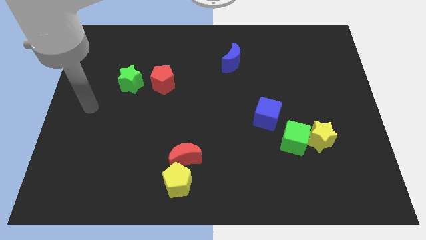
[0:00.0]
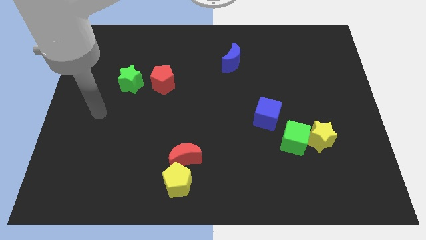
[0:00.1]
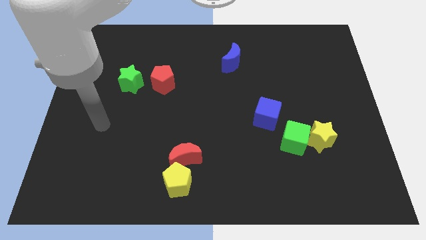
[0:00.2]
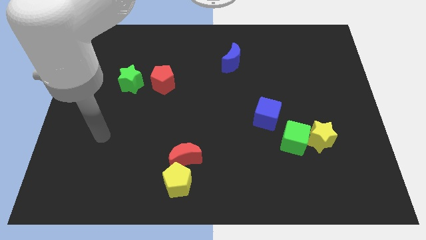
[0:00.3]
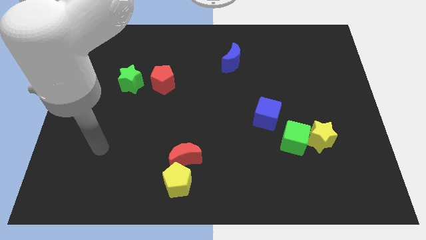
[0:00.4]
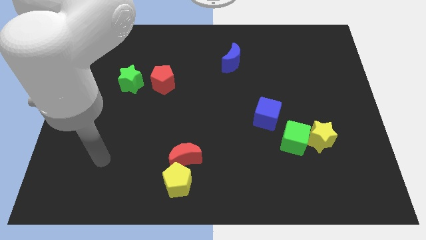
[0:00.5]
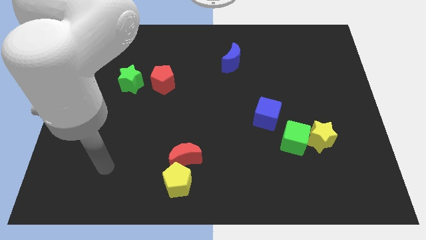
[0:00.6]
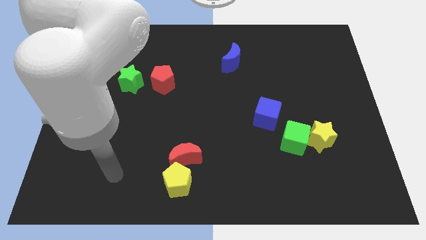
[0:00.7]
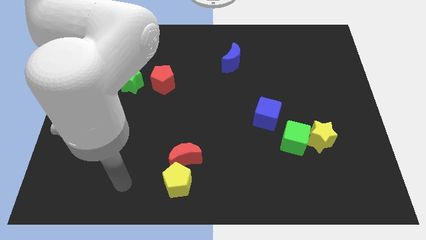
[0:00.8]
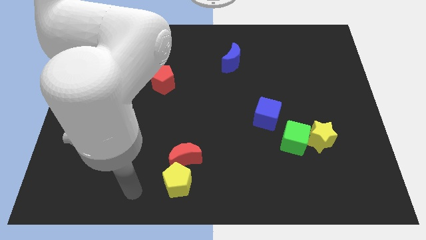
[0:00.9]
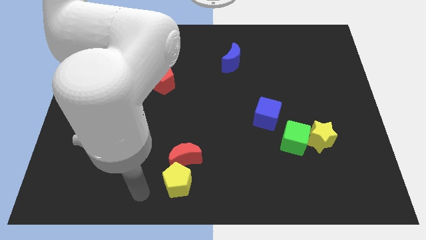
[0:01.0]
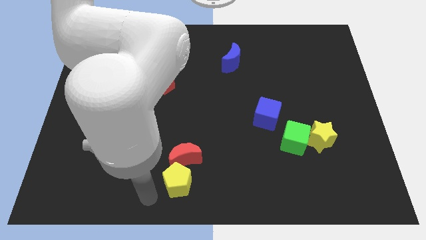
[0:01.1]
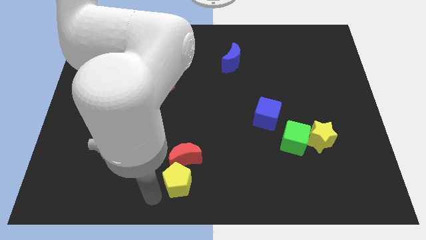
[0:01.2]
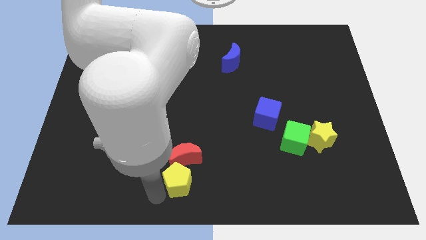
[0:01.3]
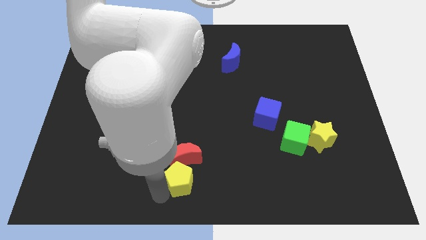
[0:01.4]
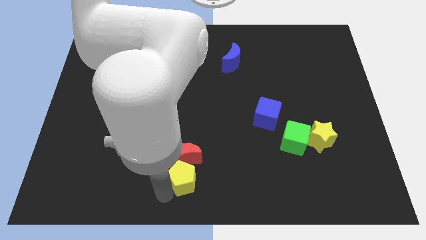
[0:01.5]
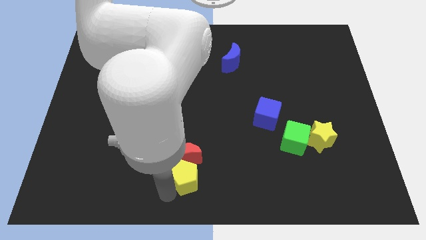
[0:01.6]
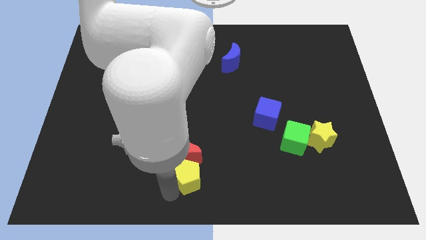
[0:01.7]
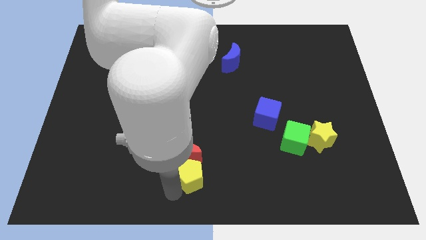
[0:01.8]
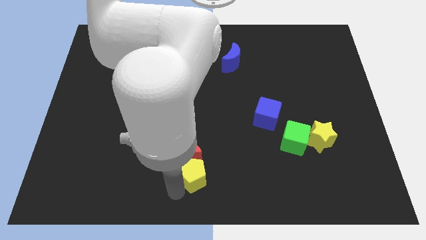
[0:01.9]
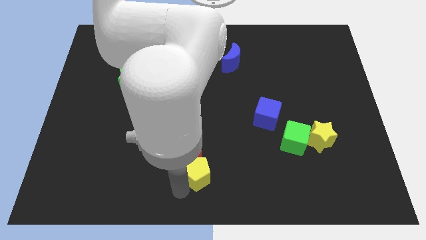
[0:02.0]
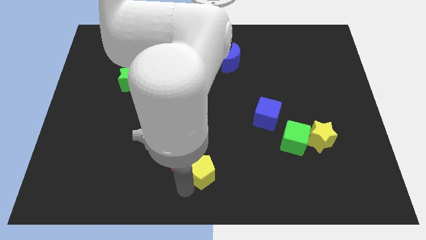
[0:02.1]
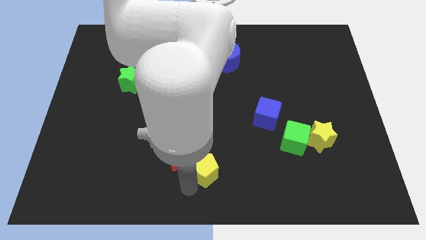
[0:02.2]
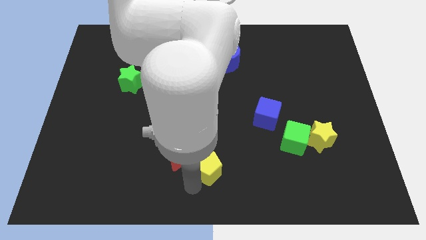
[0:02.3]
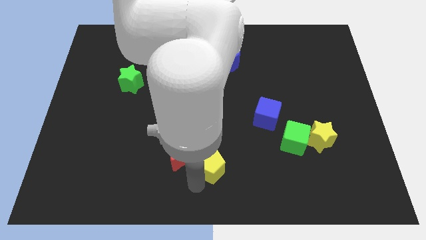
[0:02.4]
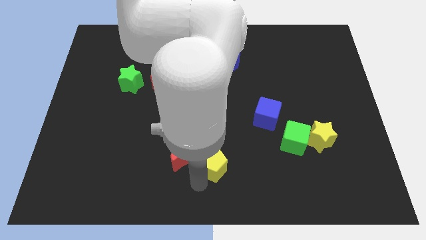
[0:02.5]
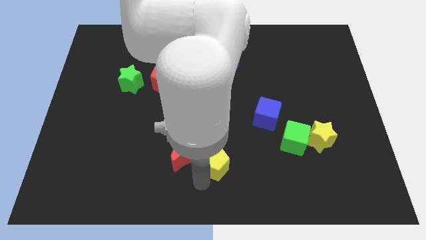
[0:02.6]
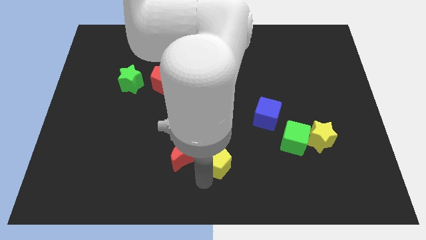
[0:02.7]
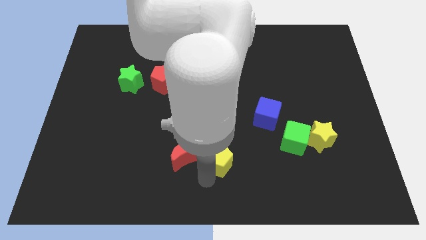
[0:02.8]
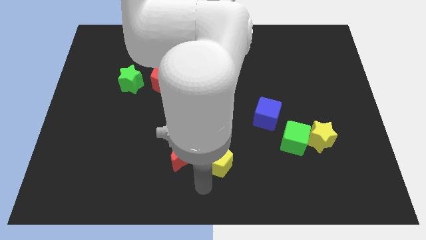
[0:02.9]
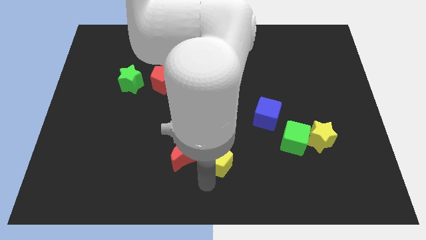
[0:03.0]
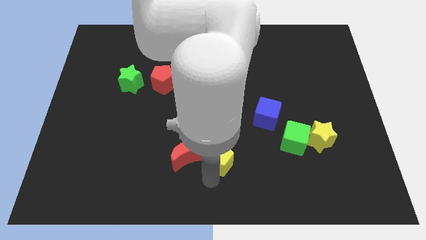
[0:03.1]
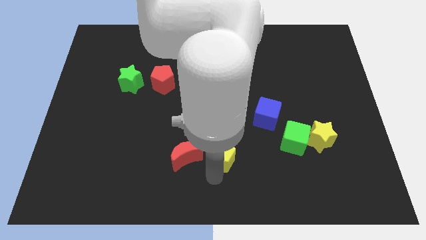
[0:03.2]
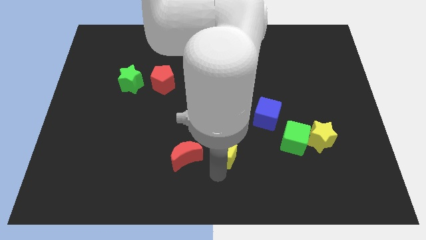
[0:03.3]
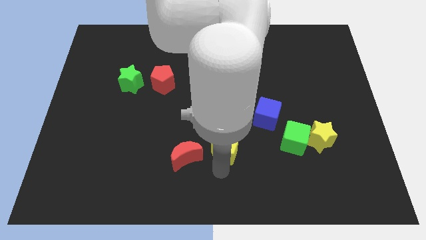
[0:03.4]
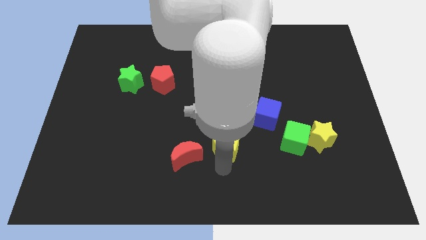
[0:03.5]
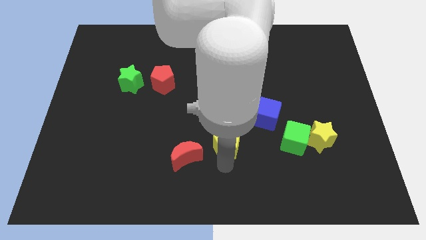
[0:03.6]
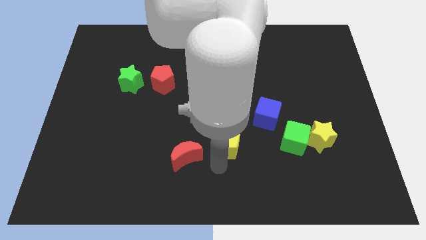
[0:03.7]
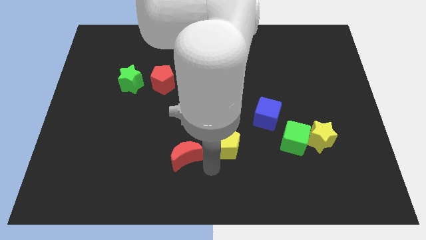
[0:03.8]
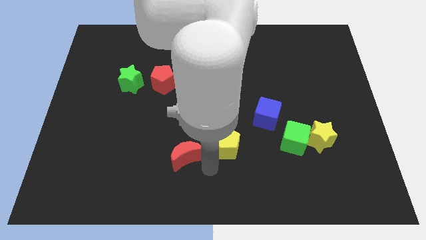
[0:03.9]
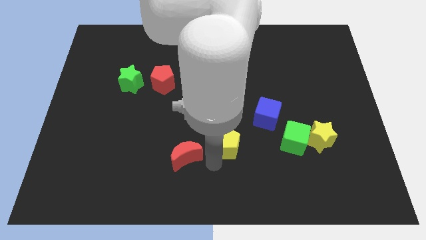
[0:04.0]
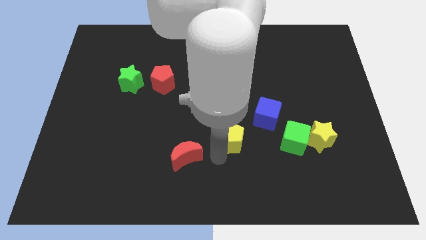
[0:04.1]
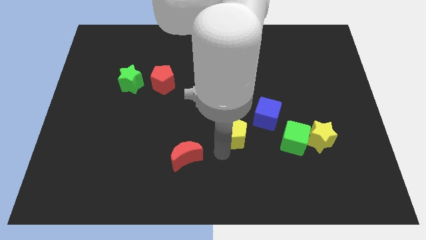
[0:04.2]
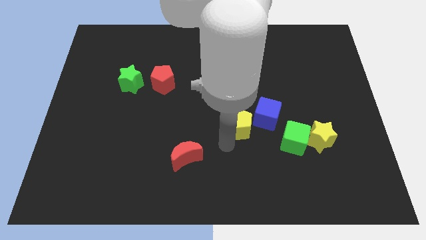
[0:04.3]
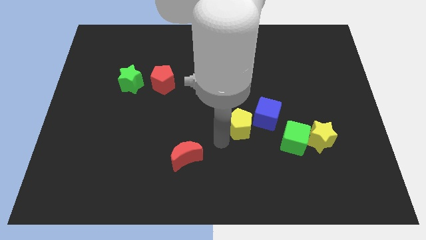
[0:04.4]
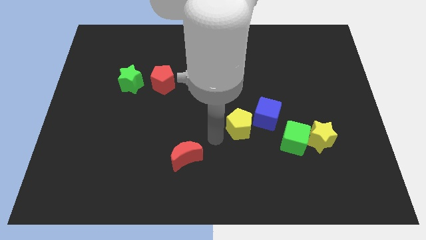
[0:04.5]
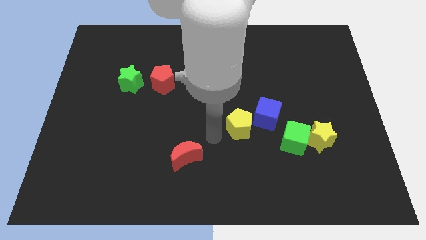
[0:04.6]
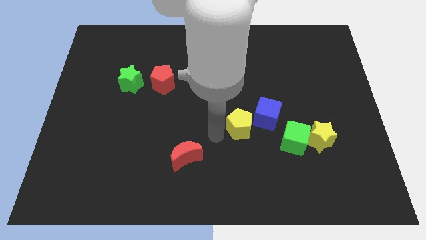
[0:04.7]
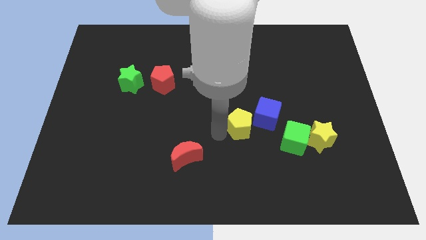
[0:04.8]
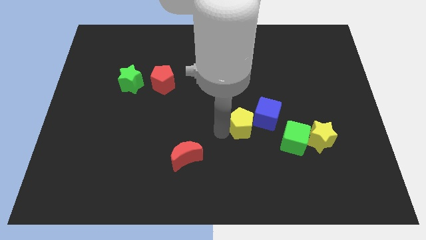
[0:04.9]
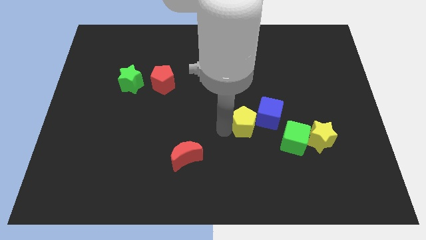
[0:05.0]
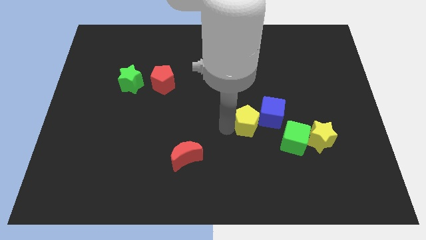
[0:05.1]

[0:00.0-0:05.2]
put the yellow pentagon towards the blue cube

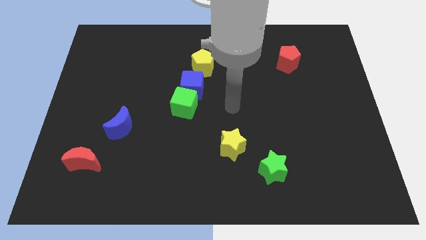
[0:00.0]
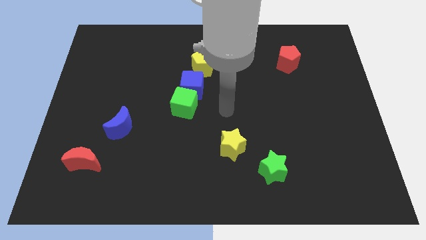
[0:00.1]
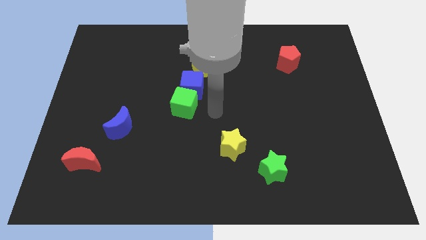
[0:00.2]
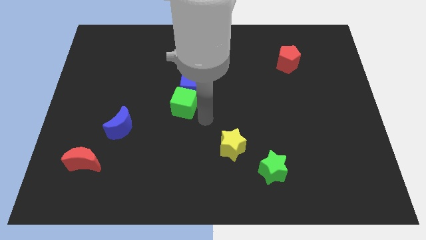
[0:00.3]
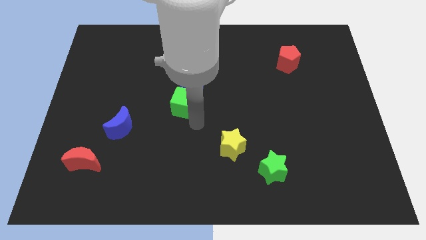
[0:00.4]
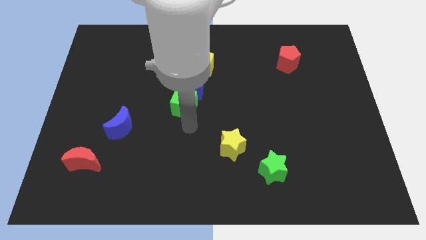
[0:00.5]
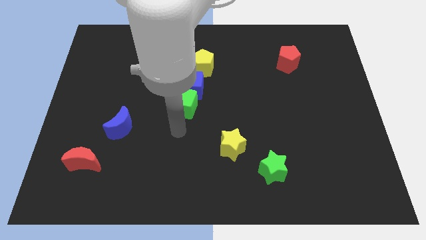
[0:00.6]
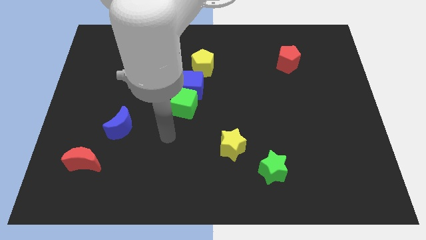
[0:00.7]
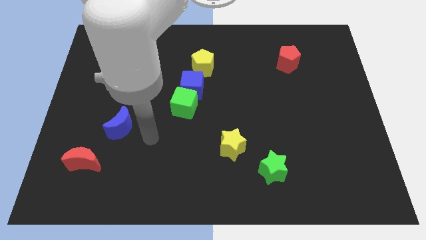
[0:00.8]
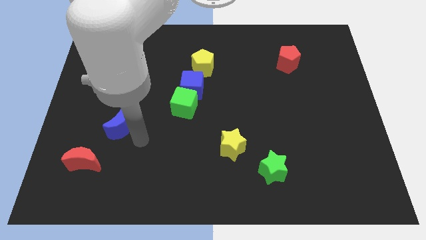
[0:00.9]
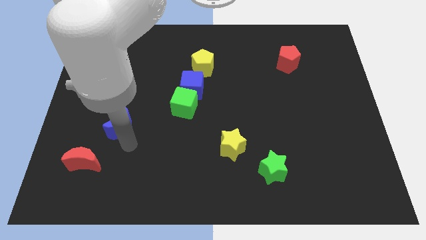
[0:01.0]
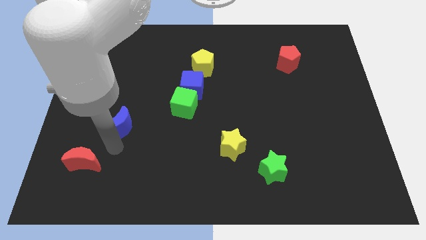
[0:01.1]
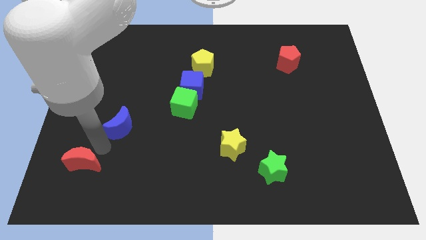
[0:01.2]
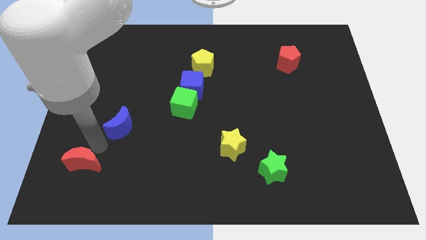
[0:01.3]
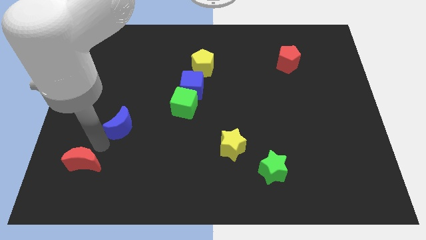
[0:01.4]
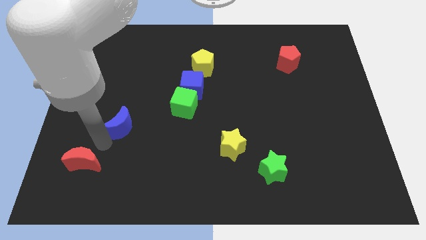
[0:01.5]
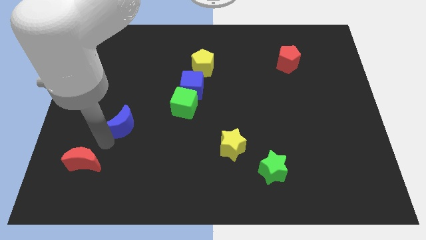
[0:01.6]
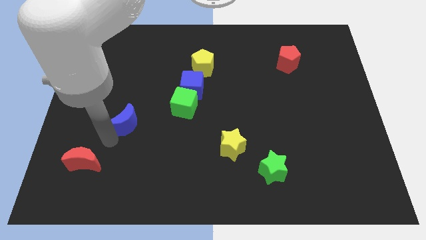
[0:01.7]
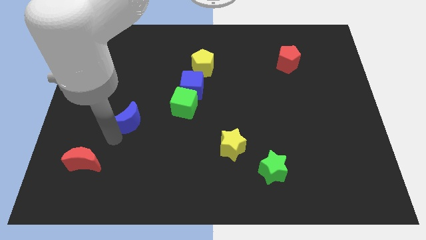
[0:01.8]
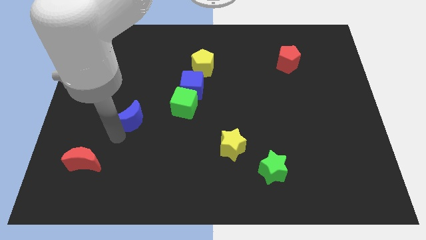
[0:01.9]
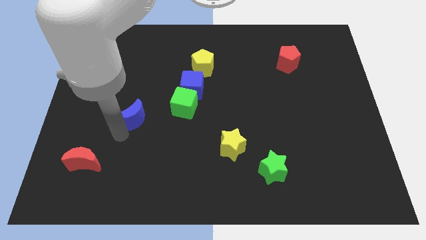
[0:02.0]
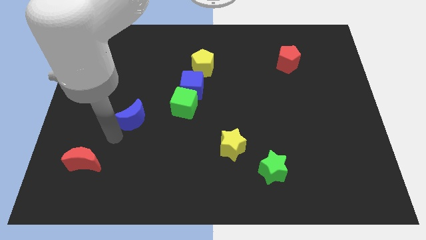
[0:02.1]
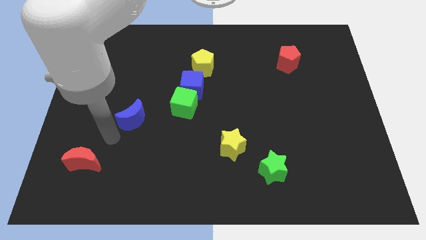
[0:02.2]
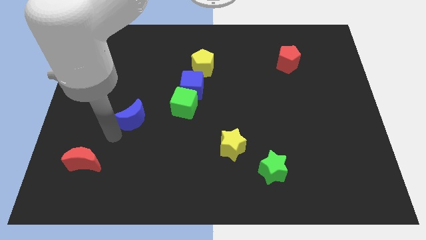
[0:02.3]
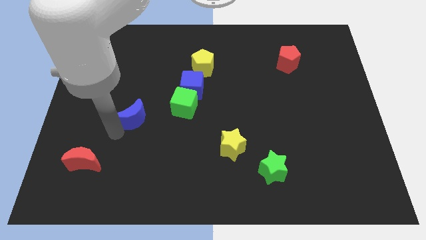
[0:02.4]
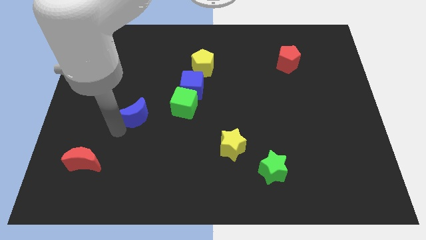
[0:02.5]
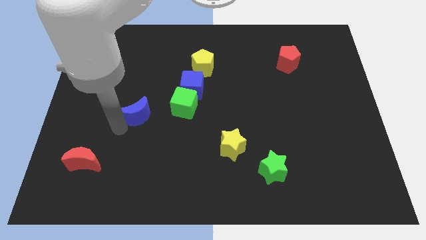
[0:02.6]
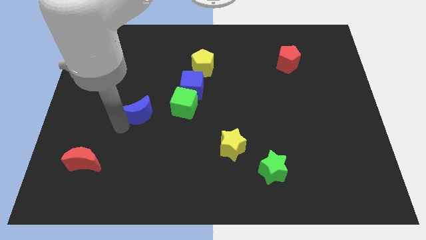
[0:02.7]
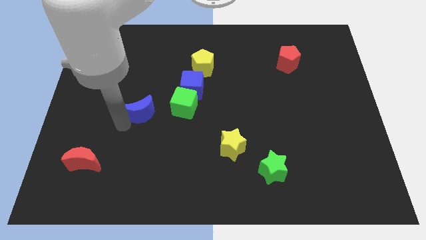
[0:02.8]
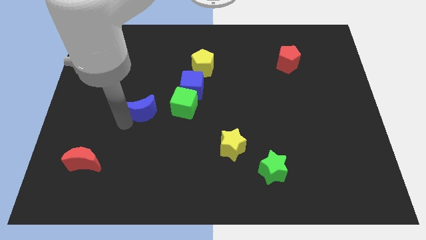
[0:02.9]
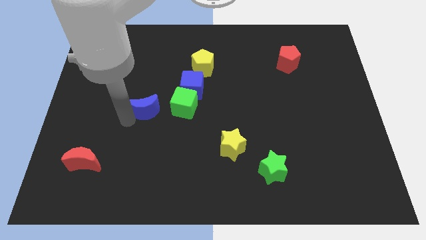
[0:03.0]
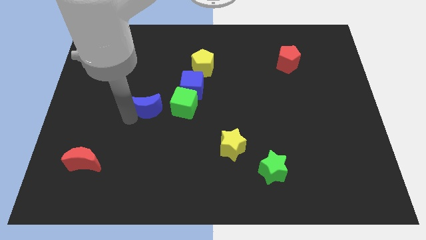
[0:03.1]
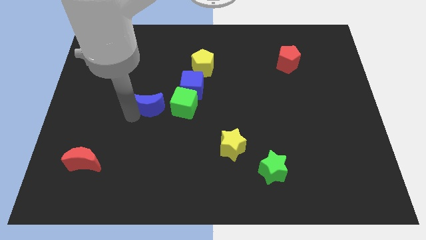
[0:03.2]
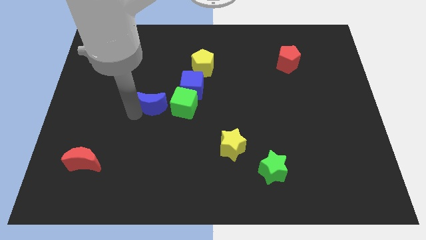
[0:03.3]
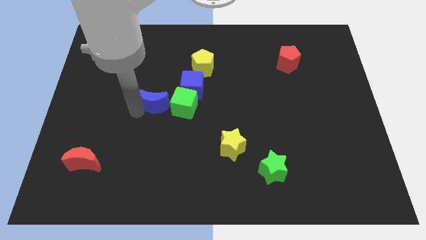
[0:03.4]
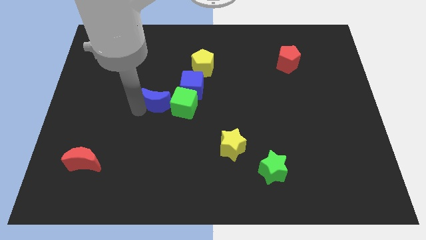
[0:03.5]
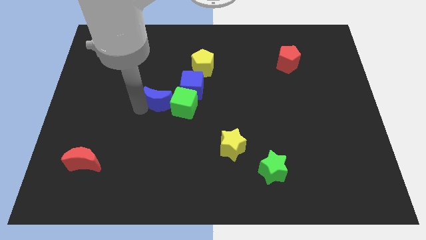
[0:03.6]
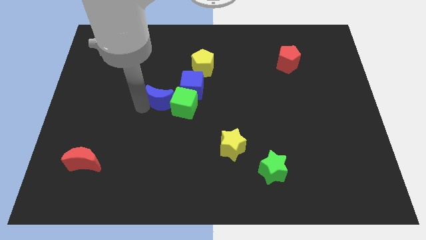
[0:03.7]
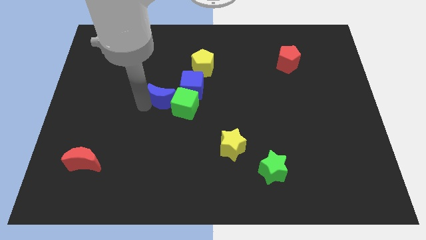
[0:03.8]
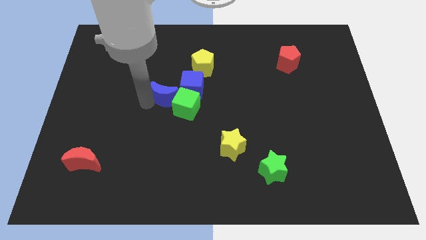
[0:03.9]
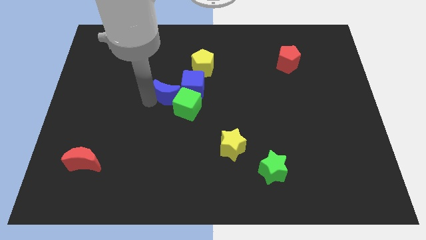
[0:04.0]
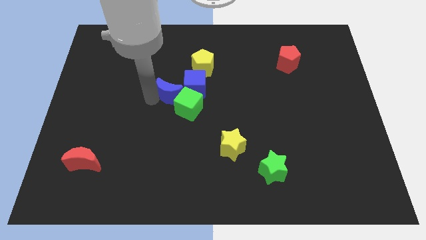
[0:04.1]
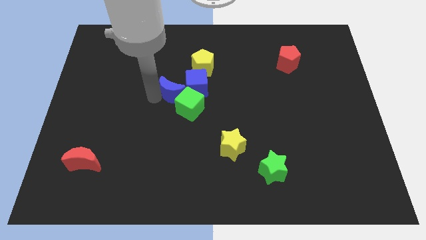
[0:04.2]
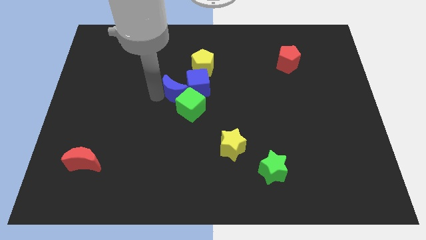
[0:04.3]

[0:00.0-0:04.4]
move the blue moon next to the blue cube
